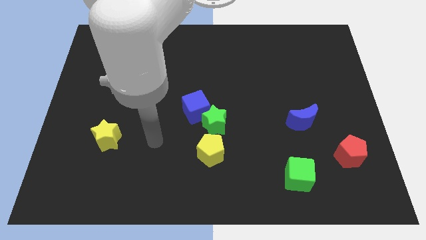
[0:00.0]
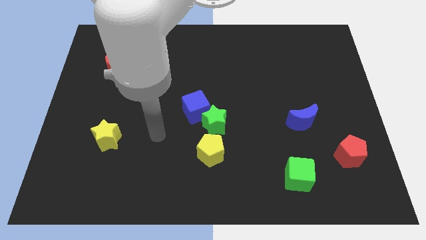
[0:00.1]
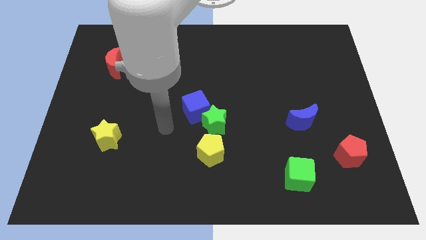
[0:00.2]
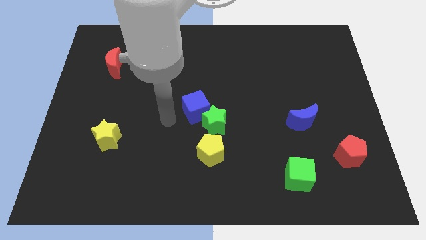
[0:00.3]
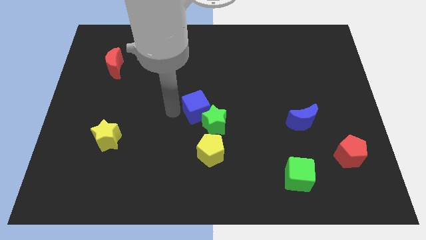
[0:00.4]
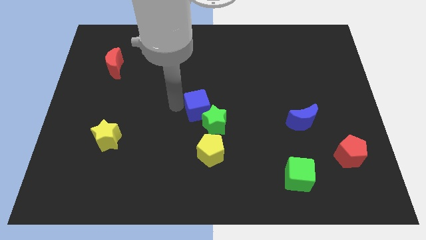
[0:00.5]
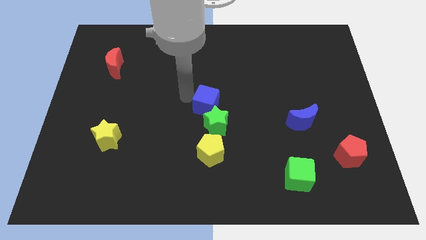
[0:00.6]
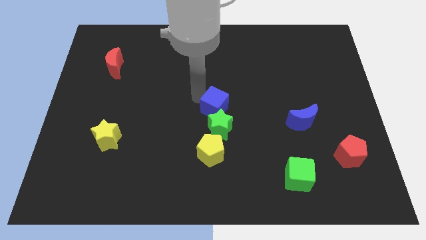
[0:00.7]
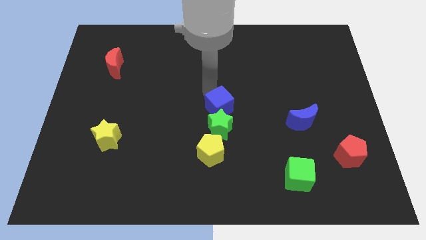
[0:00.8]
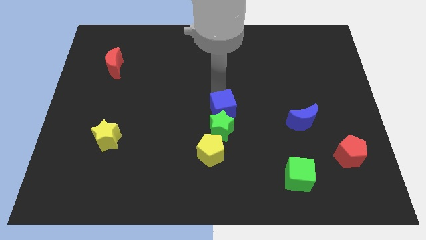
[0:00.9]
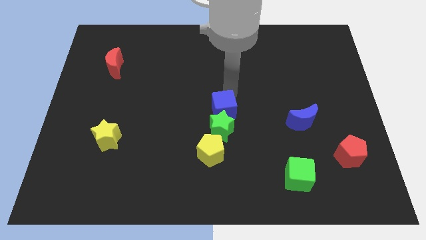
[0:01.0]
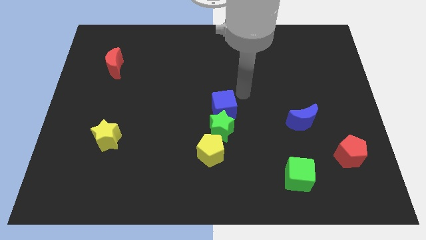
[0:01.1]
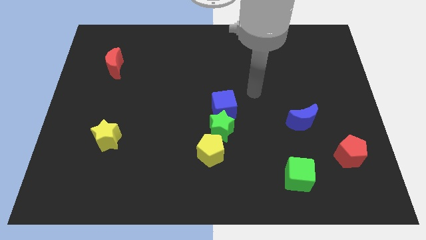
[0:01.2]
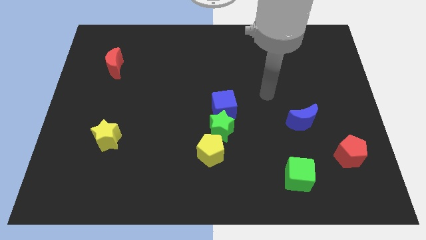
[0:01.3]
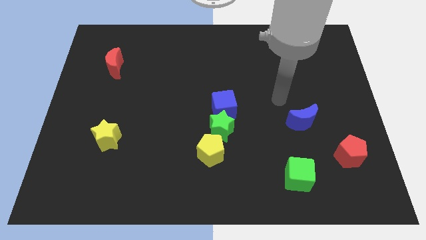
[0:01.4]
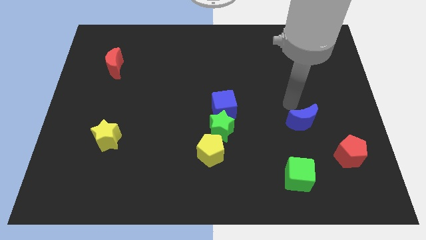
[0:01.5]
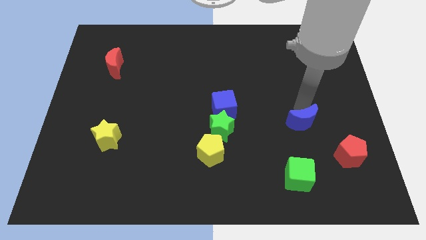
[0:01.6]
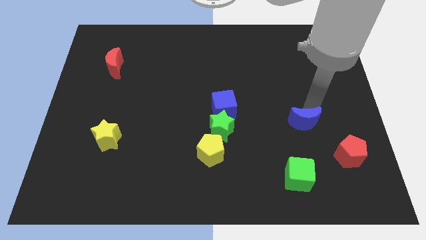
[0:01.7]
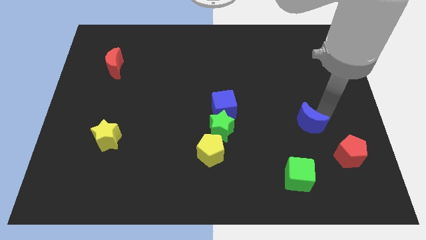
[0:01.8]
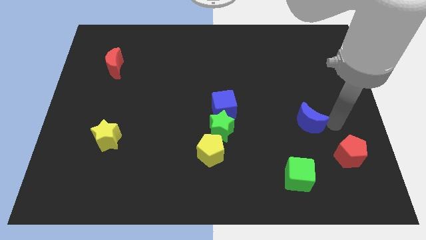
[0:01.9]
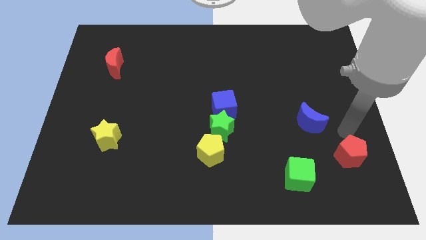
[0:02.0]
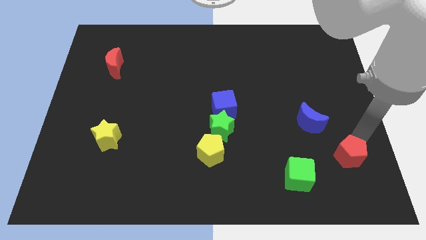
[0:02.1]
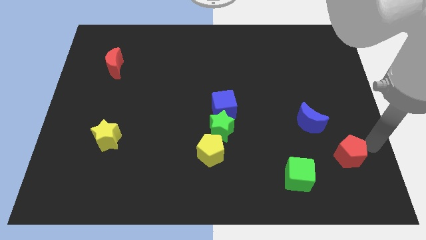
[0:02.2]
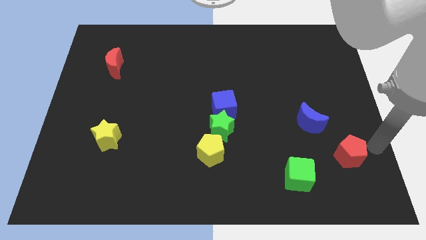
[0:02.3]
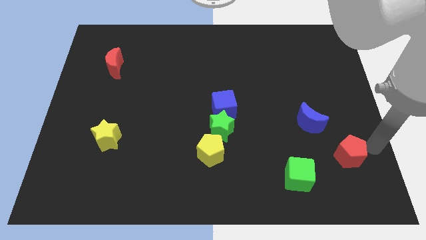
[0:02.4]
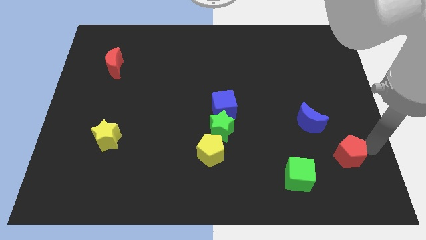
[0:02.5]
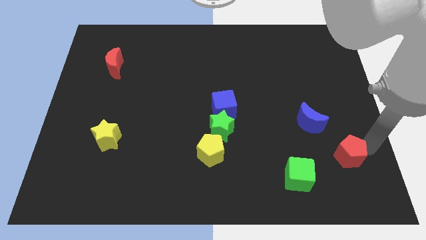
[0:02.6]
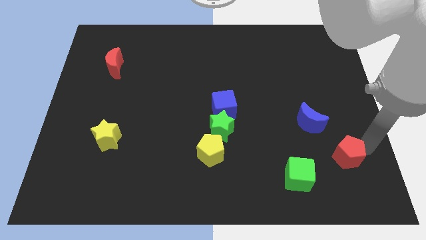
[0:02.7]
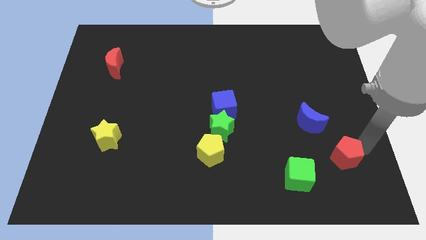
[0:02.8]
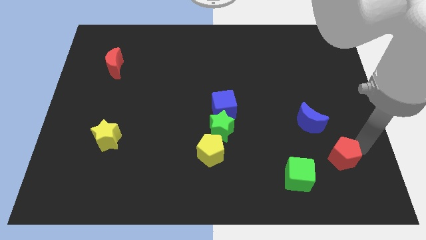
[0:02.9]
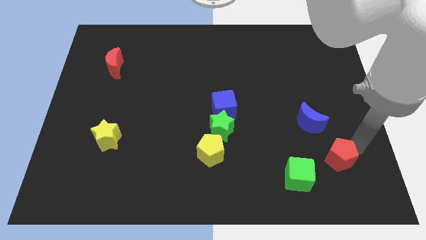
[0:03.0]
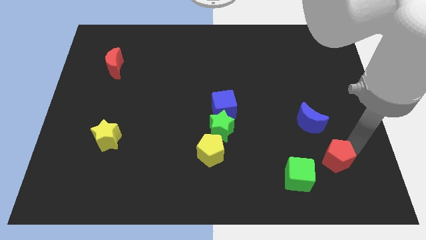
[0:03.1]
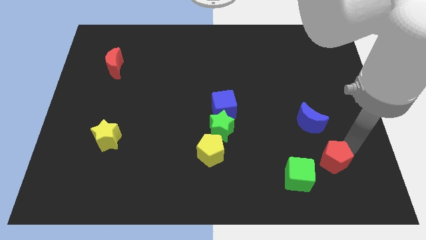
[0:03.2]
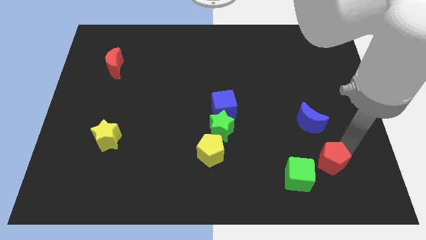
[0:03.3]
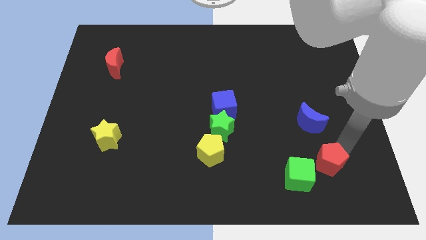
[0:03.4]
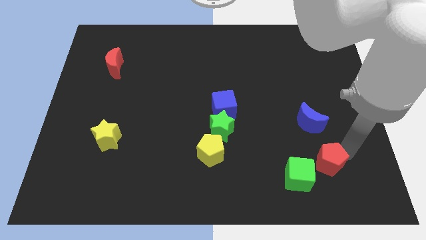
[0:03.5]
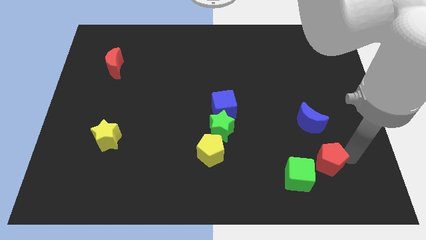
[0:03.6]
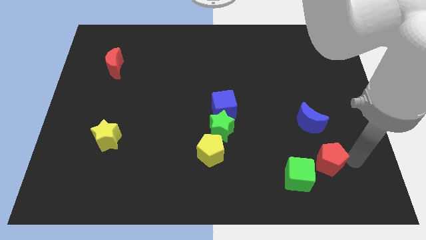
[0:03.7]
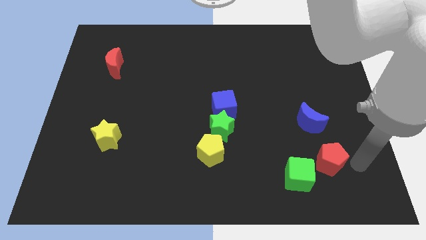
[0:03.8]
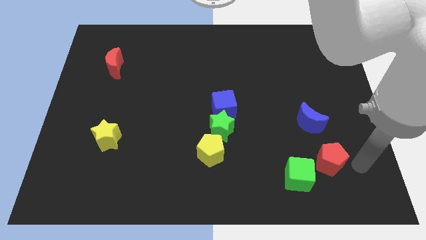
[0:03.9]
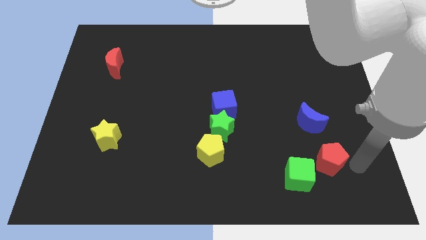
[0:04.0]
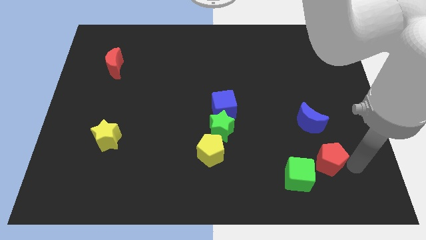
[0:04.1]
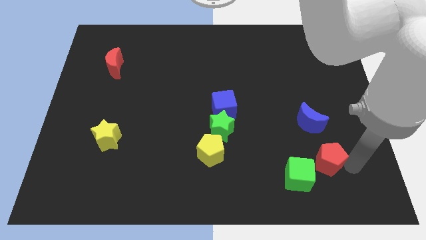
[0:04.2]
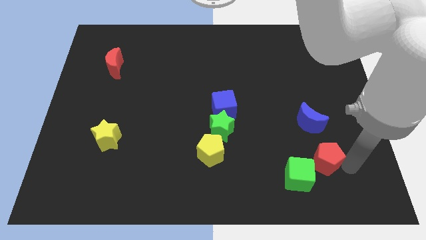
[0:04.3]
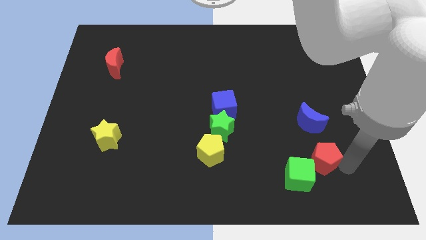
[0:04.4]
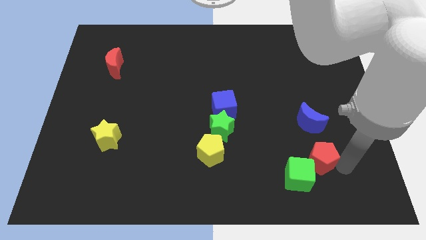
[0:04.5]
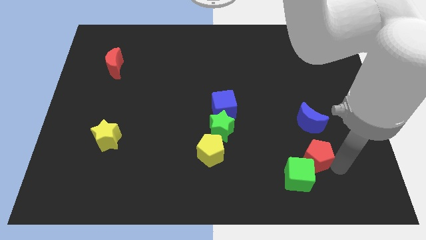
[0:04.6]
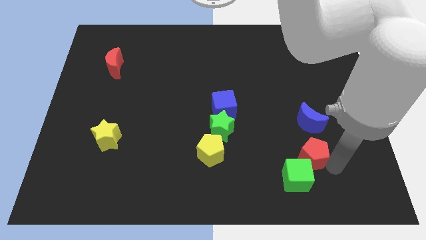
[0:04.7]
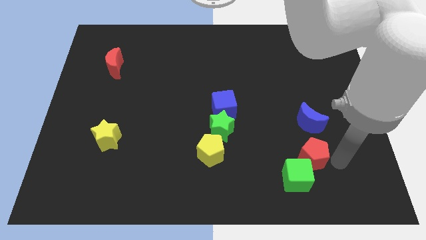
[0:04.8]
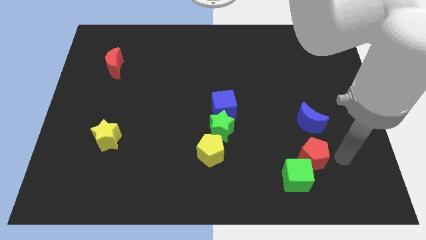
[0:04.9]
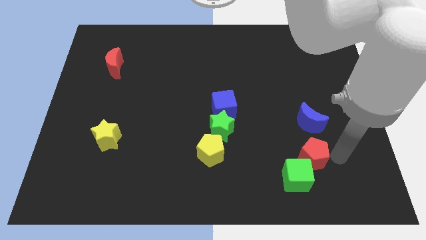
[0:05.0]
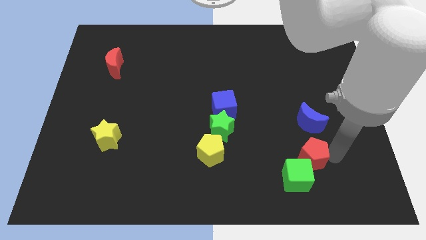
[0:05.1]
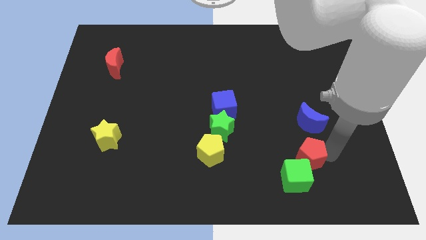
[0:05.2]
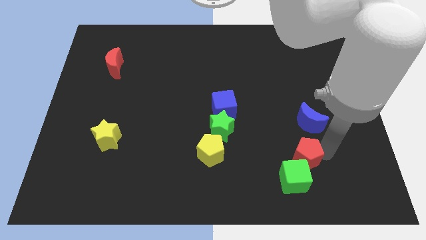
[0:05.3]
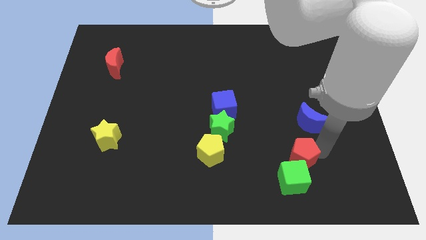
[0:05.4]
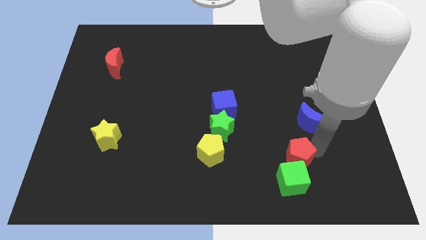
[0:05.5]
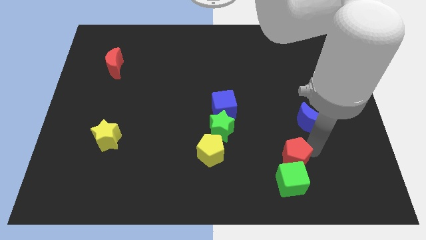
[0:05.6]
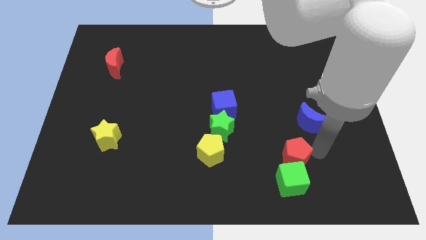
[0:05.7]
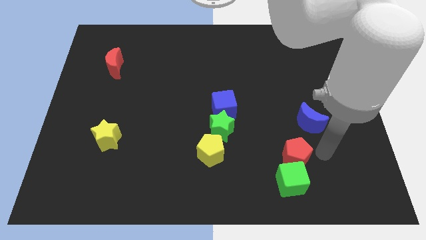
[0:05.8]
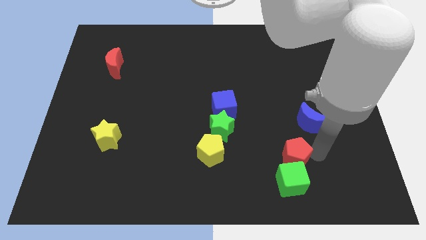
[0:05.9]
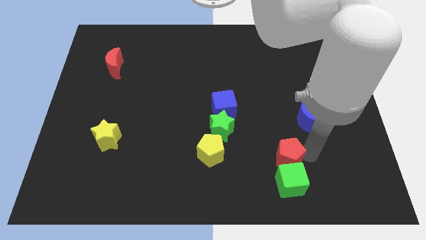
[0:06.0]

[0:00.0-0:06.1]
move the red pentagon diagonally up and to the left of the green cube
